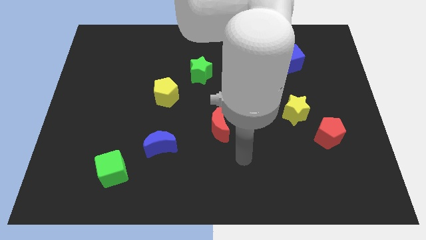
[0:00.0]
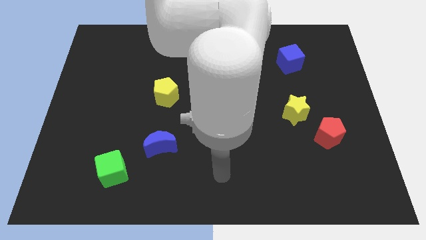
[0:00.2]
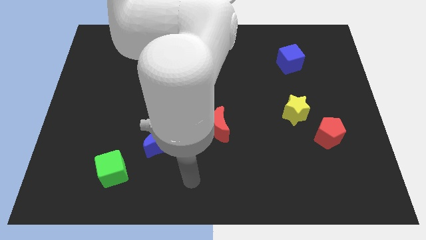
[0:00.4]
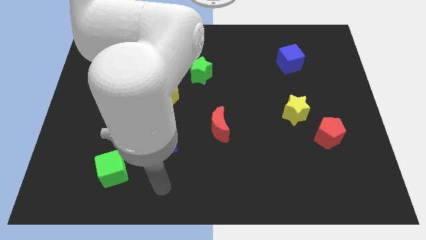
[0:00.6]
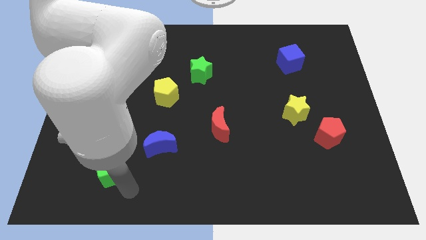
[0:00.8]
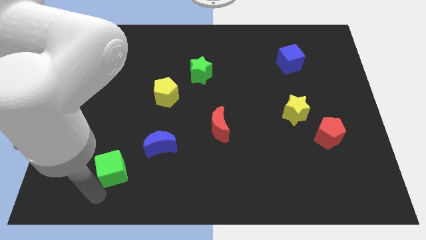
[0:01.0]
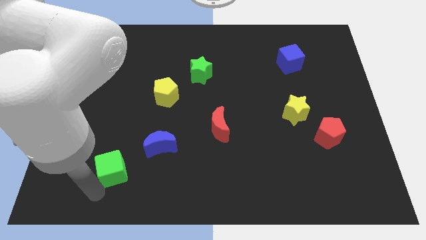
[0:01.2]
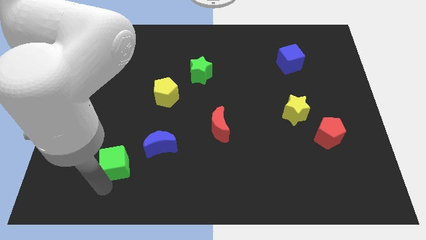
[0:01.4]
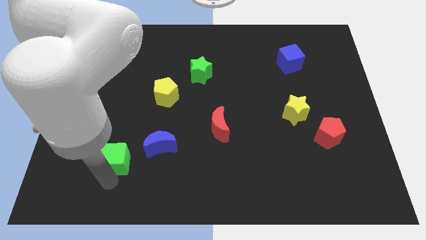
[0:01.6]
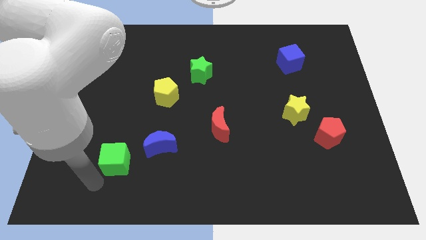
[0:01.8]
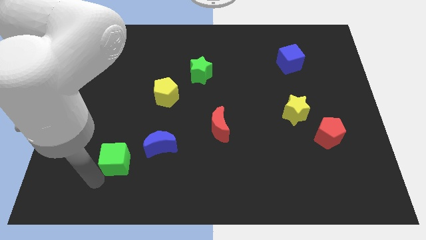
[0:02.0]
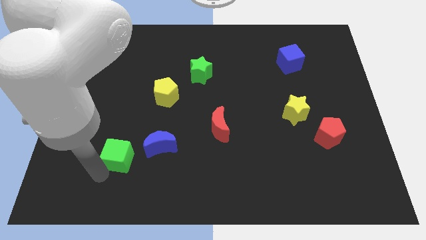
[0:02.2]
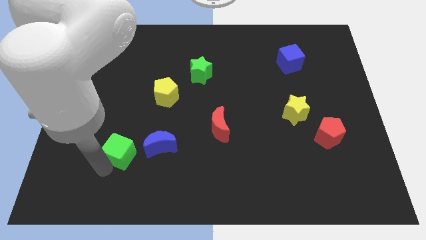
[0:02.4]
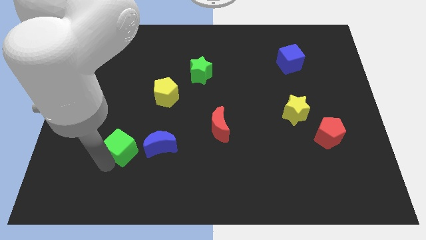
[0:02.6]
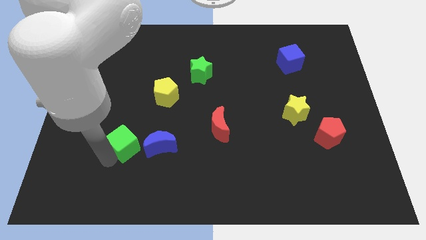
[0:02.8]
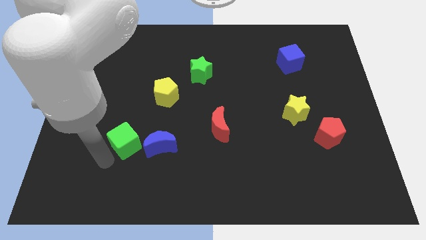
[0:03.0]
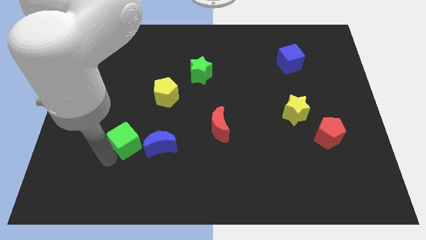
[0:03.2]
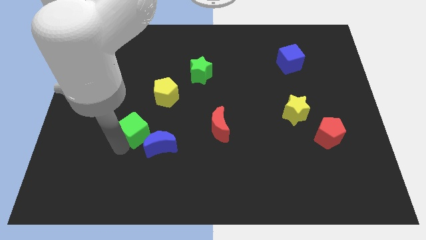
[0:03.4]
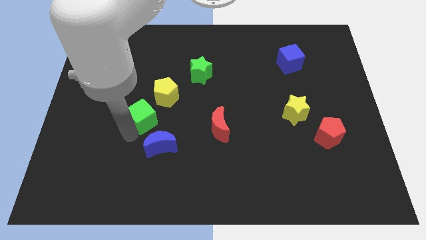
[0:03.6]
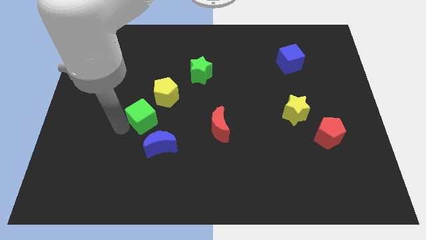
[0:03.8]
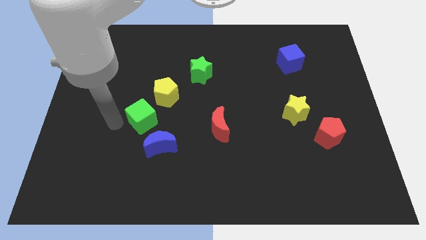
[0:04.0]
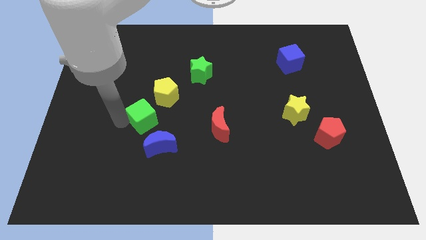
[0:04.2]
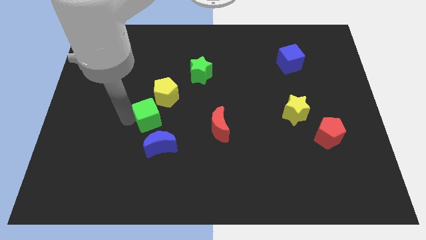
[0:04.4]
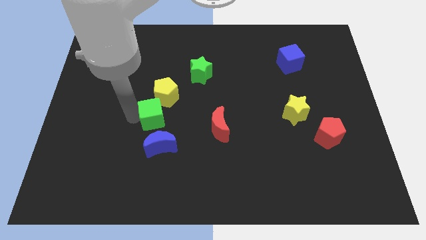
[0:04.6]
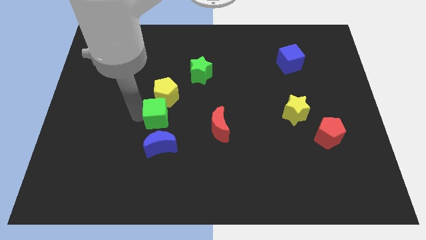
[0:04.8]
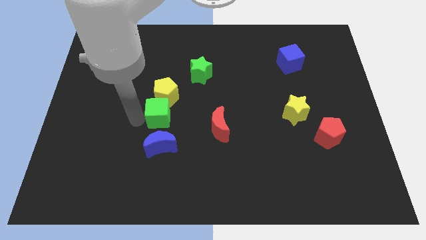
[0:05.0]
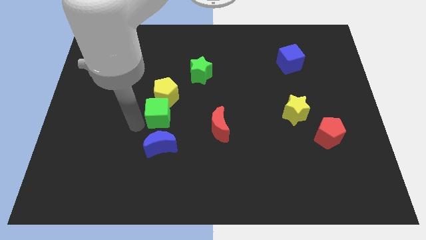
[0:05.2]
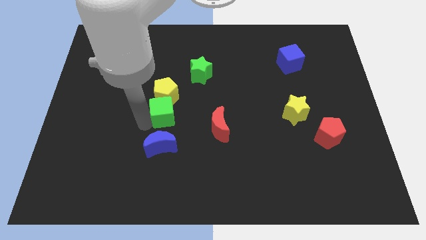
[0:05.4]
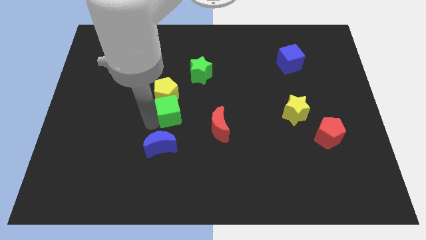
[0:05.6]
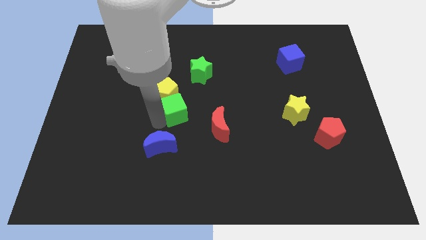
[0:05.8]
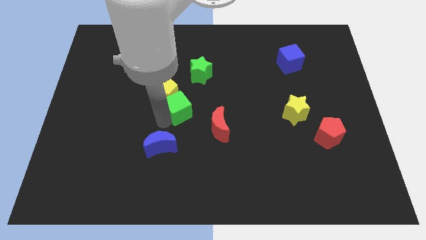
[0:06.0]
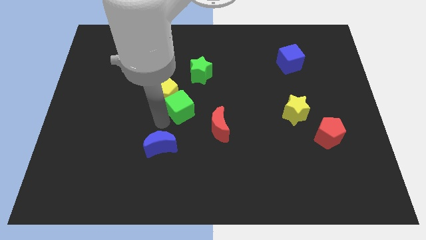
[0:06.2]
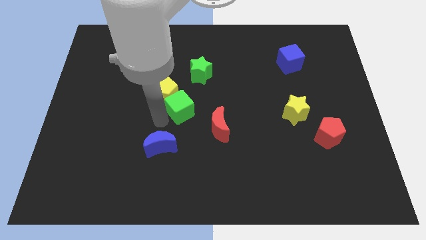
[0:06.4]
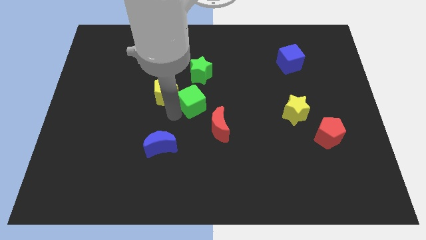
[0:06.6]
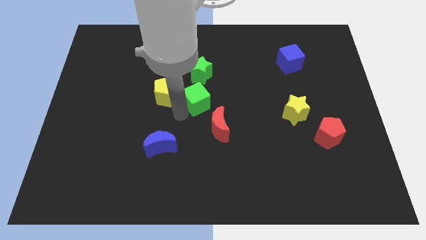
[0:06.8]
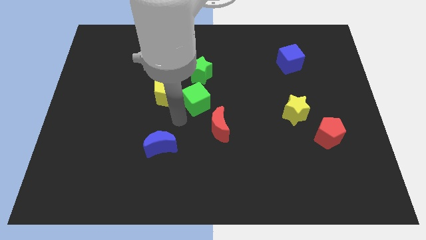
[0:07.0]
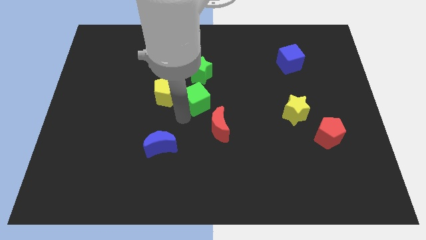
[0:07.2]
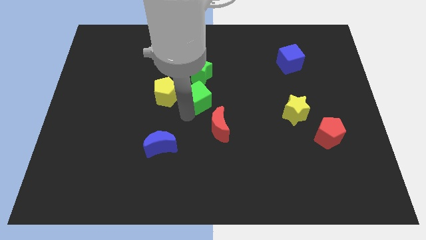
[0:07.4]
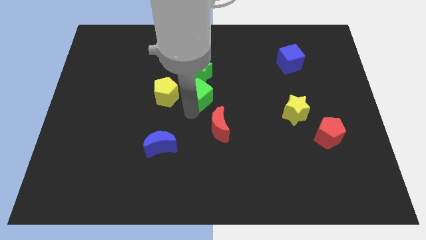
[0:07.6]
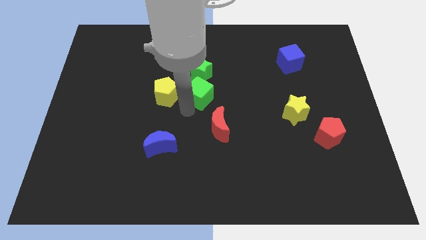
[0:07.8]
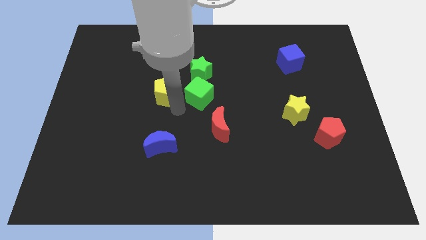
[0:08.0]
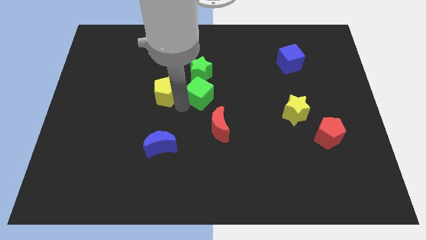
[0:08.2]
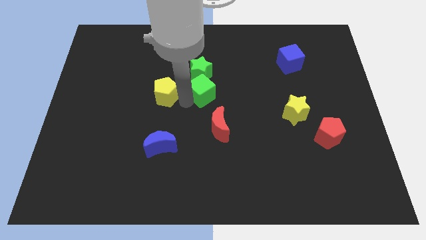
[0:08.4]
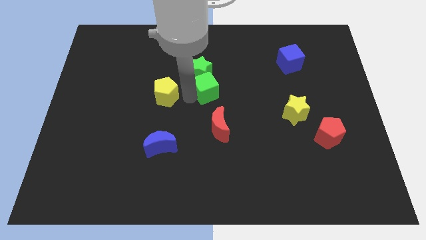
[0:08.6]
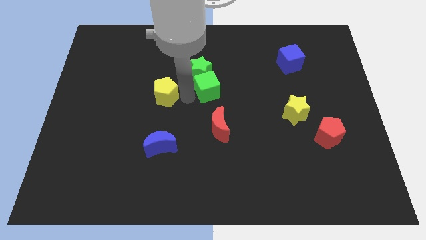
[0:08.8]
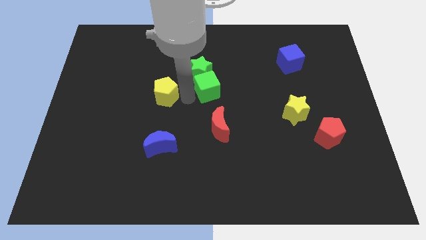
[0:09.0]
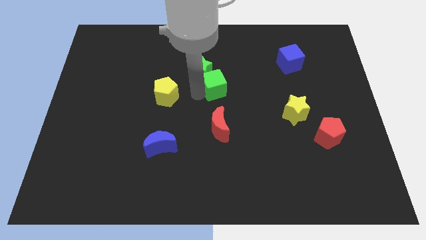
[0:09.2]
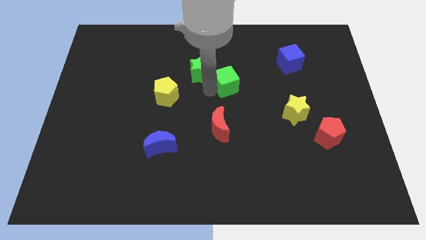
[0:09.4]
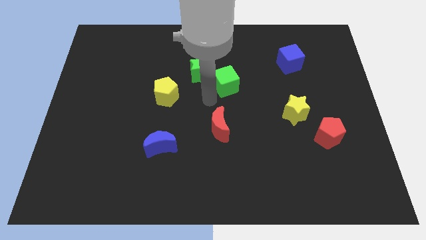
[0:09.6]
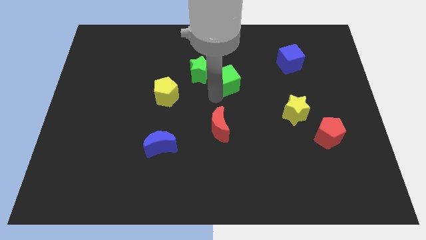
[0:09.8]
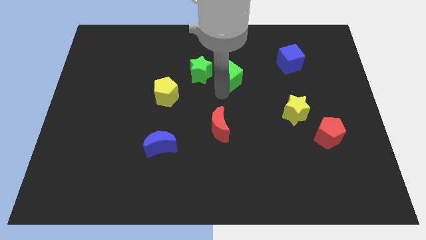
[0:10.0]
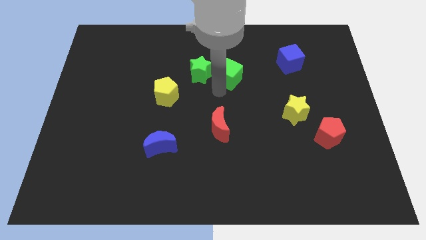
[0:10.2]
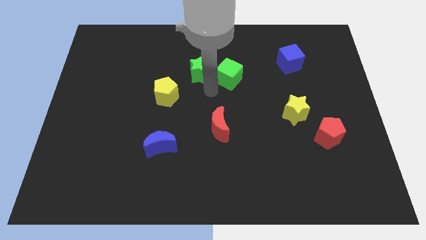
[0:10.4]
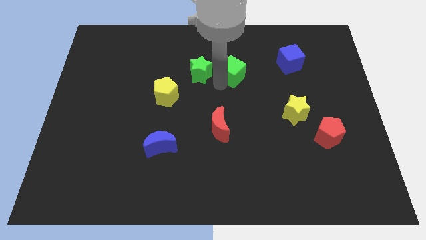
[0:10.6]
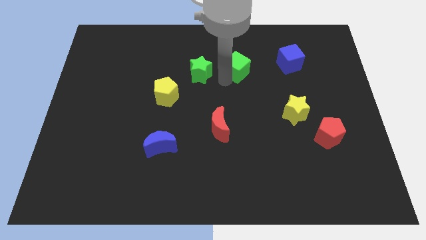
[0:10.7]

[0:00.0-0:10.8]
push the green cube just left of the blue cube

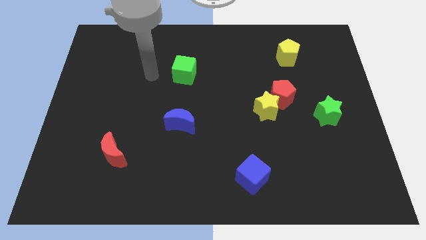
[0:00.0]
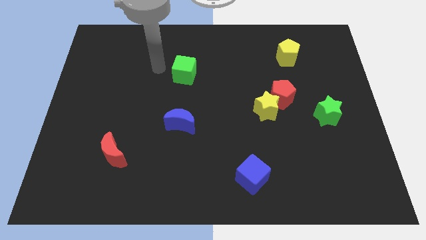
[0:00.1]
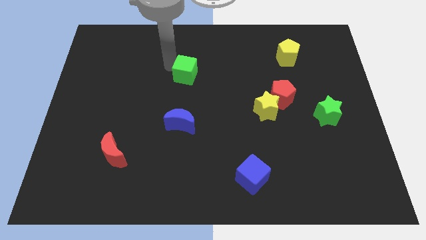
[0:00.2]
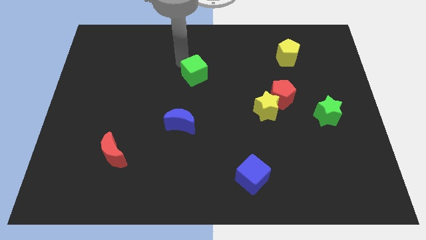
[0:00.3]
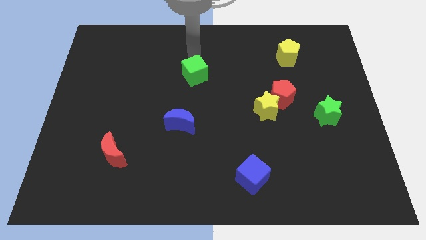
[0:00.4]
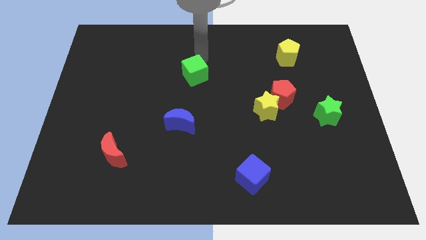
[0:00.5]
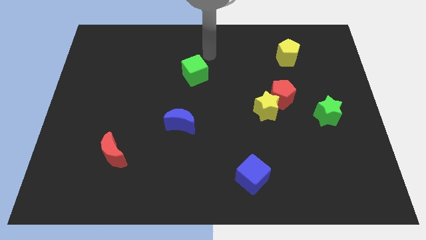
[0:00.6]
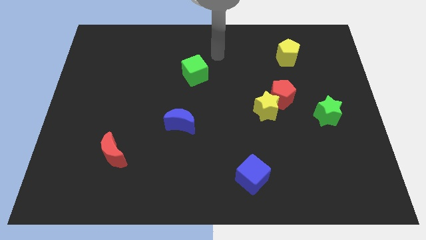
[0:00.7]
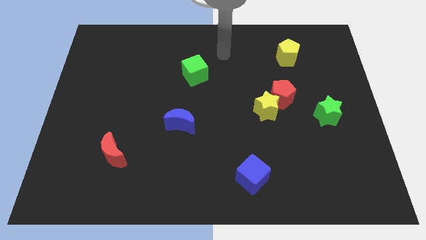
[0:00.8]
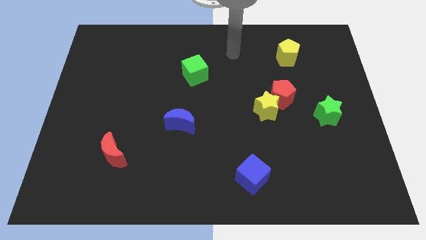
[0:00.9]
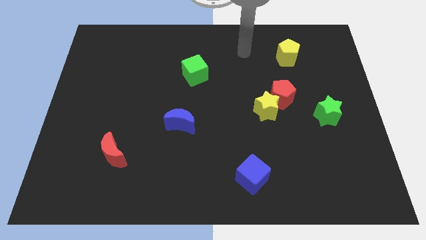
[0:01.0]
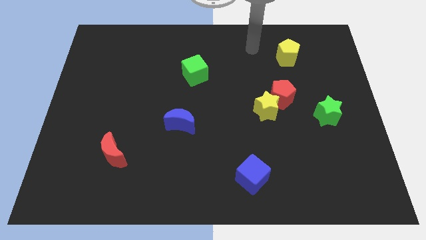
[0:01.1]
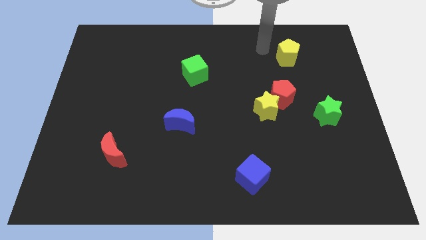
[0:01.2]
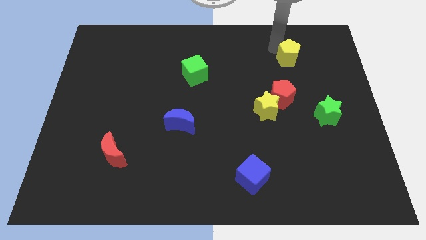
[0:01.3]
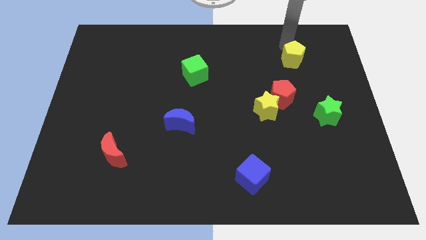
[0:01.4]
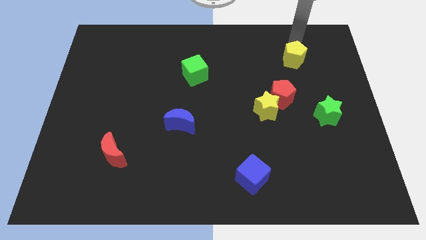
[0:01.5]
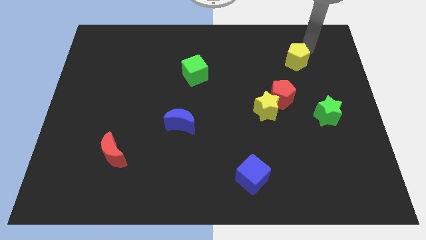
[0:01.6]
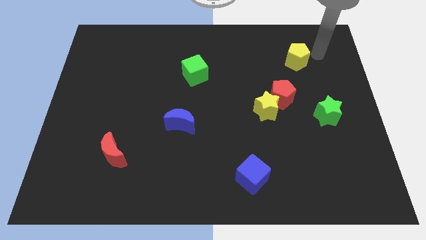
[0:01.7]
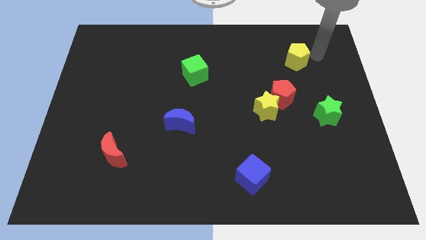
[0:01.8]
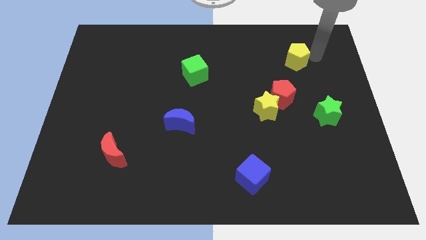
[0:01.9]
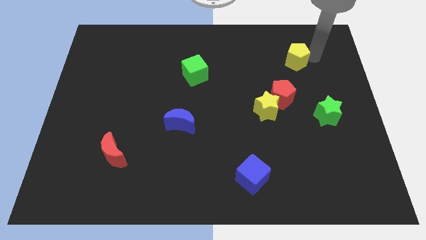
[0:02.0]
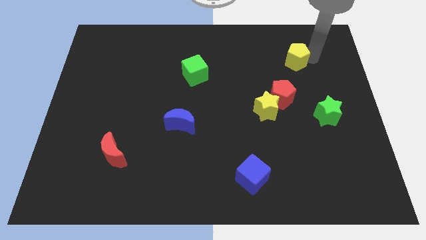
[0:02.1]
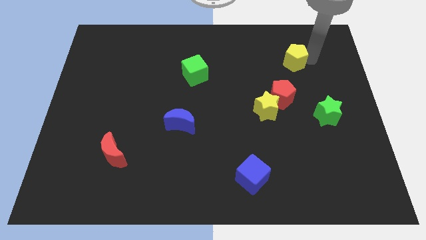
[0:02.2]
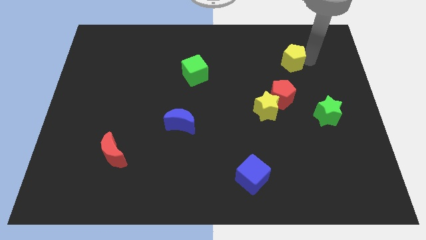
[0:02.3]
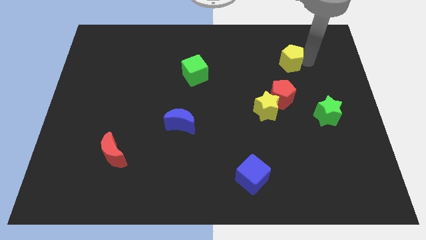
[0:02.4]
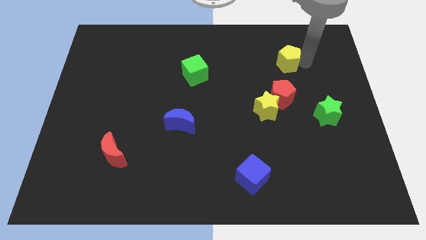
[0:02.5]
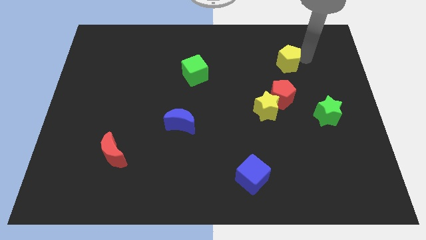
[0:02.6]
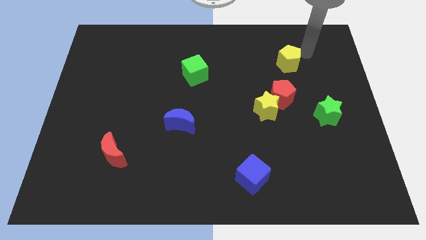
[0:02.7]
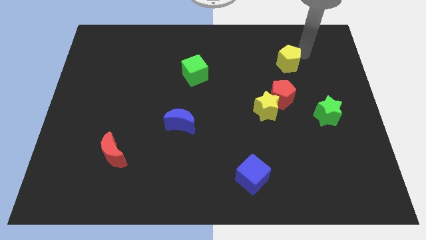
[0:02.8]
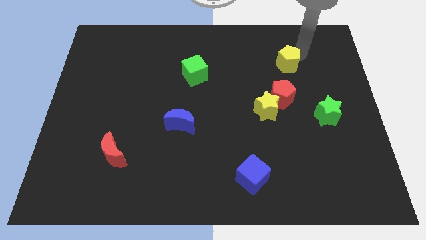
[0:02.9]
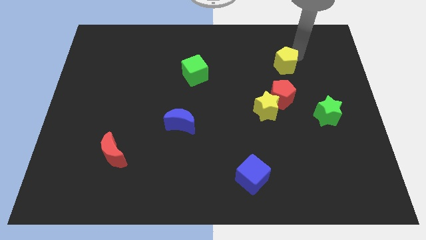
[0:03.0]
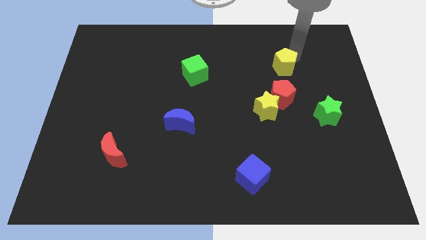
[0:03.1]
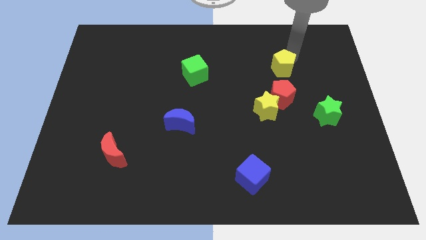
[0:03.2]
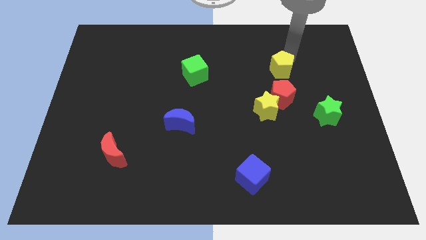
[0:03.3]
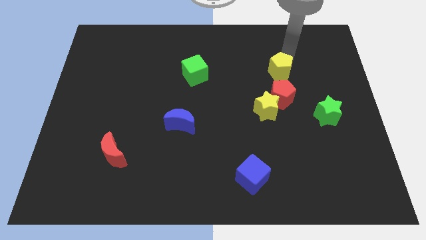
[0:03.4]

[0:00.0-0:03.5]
put the yellow pentagon above the yellow star
